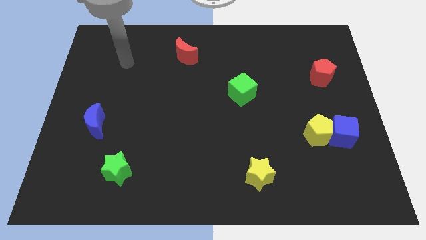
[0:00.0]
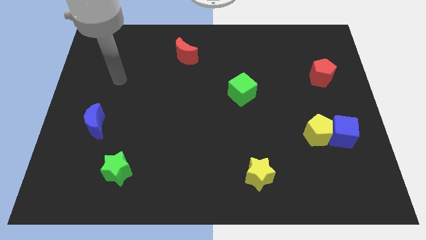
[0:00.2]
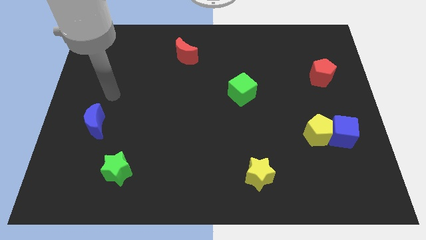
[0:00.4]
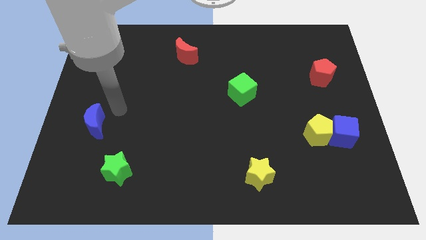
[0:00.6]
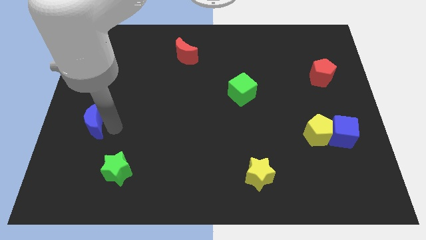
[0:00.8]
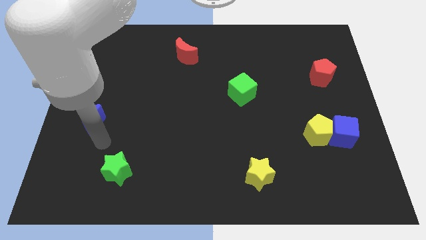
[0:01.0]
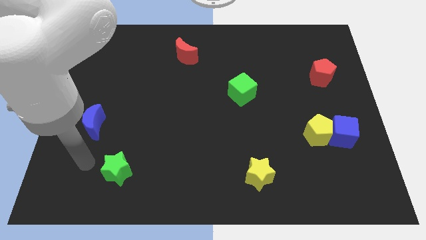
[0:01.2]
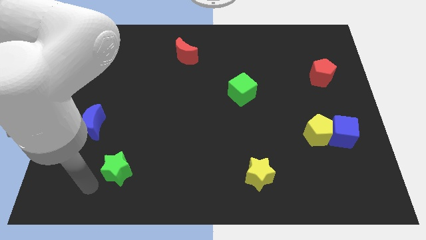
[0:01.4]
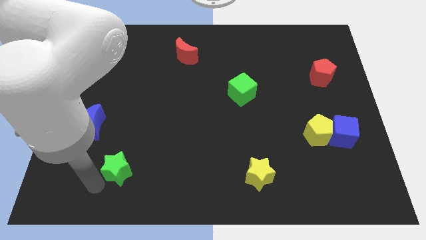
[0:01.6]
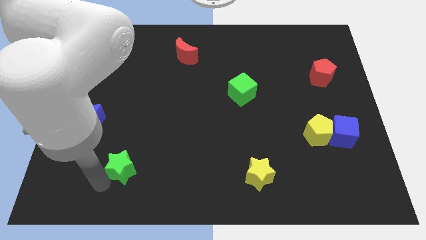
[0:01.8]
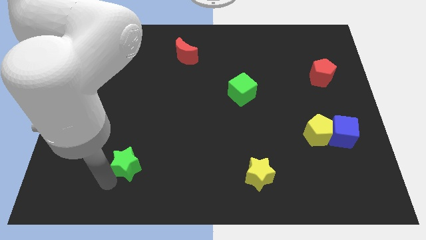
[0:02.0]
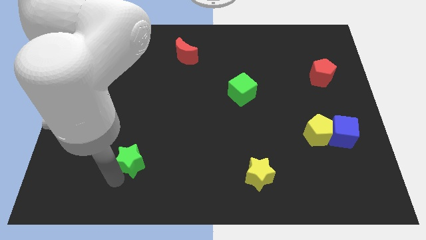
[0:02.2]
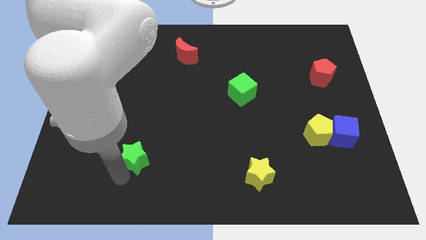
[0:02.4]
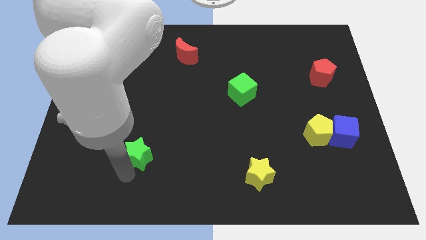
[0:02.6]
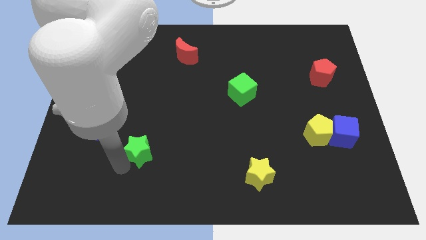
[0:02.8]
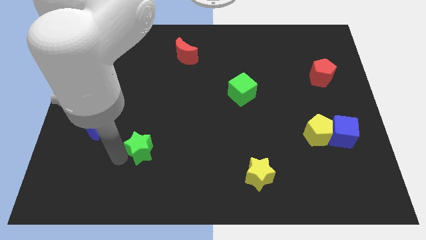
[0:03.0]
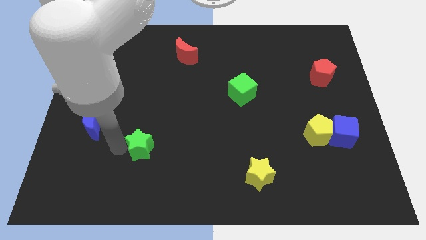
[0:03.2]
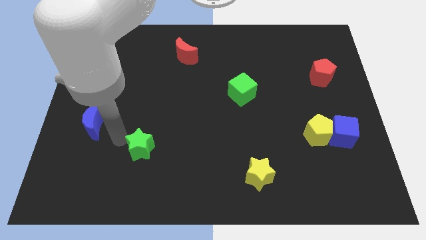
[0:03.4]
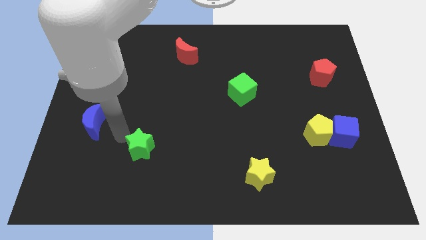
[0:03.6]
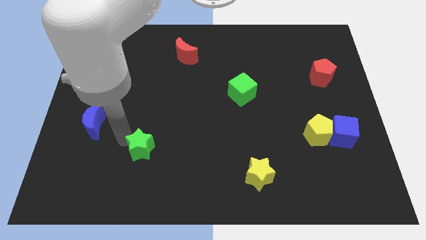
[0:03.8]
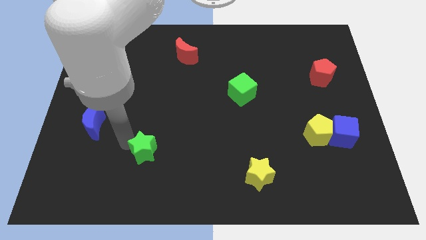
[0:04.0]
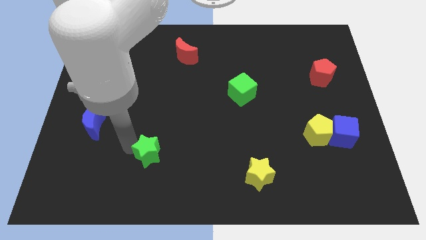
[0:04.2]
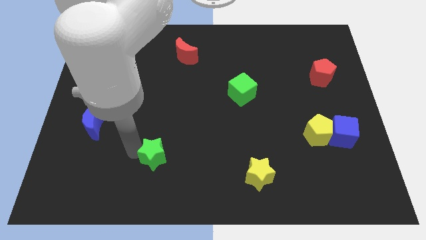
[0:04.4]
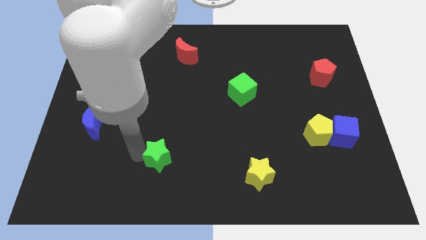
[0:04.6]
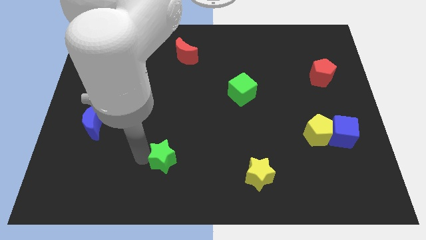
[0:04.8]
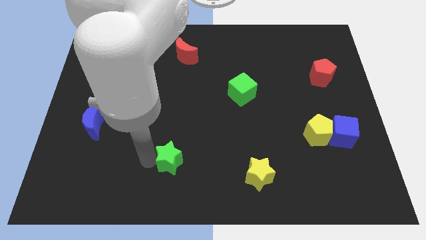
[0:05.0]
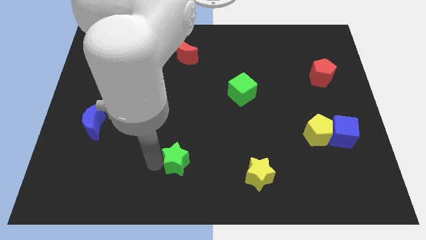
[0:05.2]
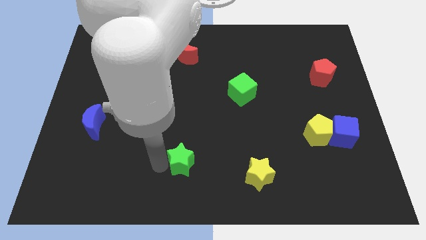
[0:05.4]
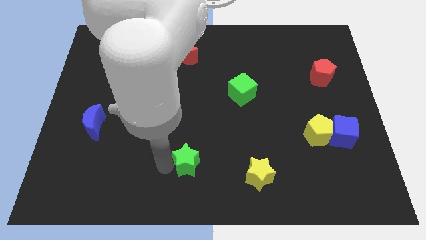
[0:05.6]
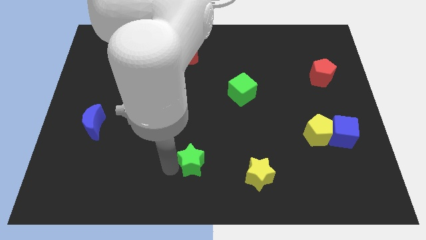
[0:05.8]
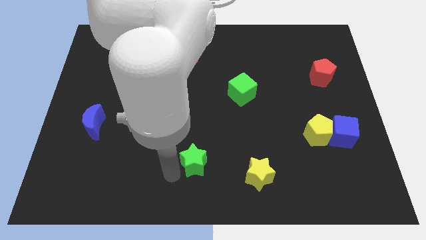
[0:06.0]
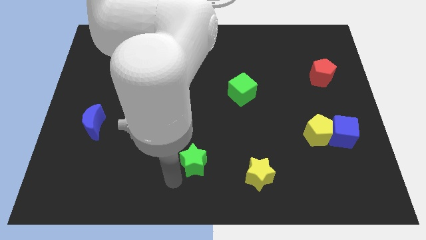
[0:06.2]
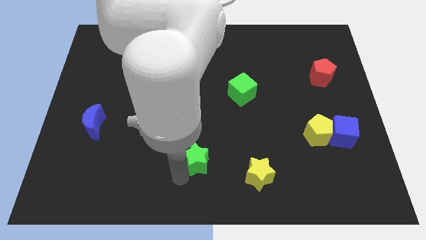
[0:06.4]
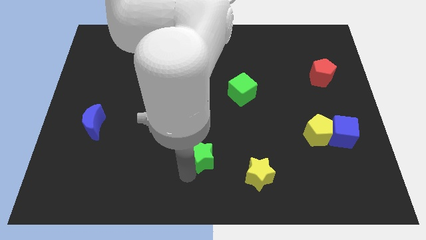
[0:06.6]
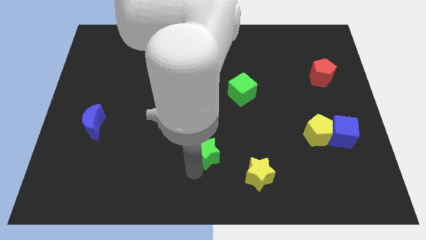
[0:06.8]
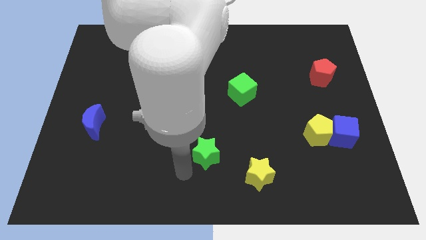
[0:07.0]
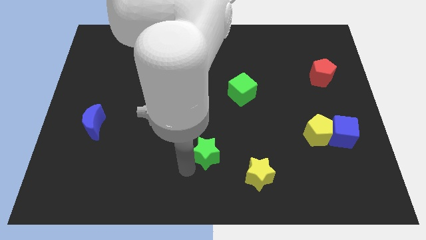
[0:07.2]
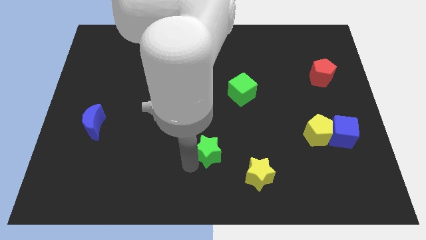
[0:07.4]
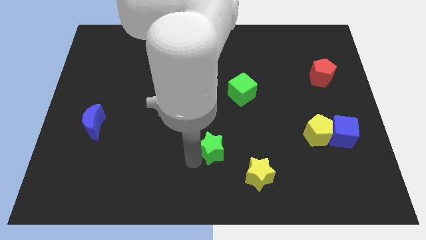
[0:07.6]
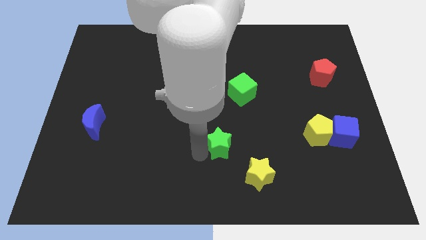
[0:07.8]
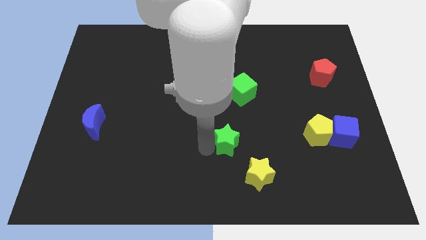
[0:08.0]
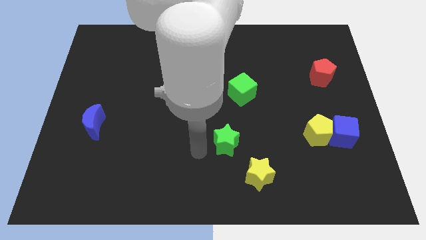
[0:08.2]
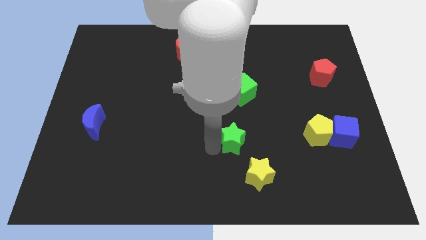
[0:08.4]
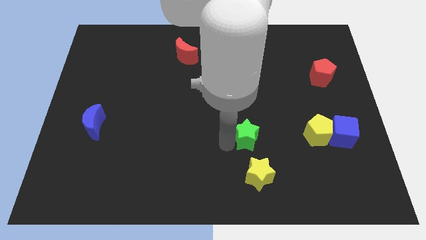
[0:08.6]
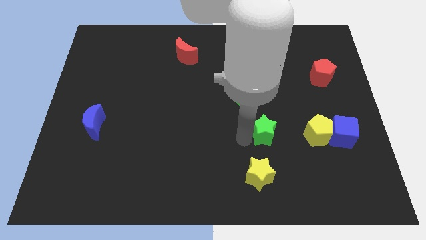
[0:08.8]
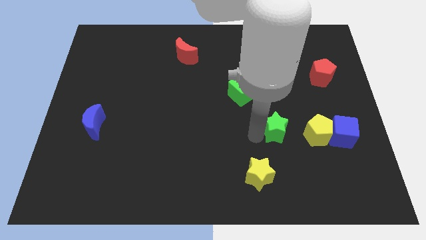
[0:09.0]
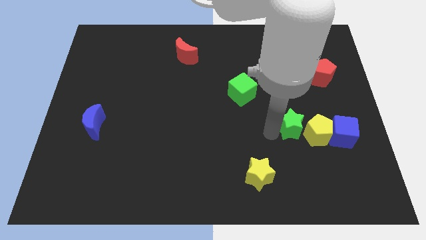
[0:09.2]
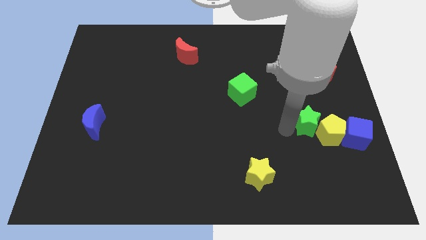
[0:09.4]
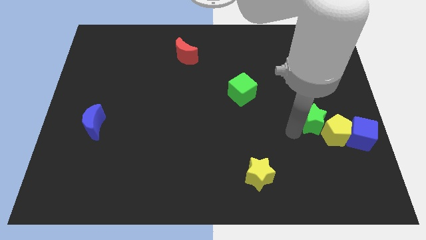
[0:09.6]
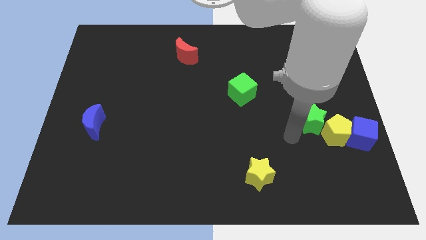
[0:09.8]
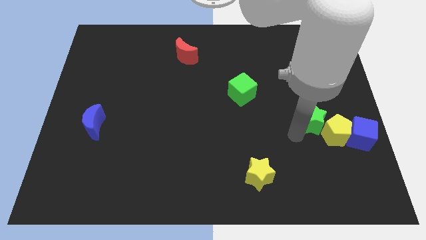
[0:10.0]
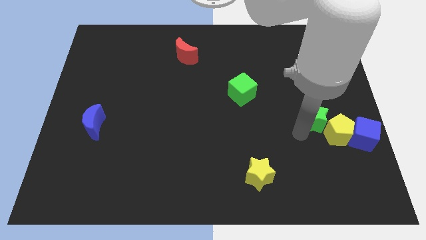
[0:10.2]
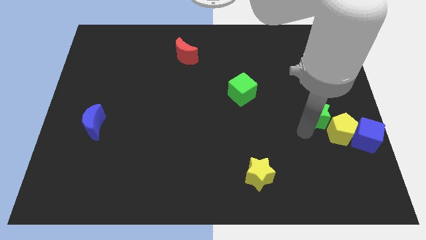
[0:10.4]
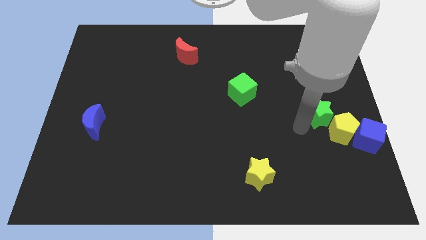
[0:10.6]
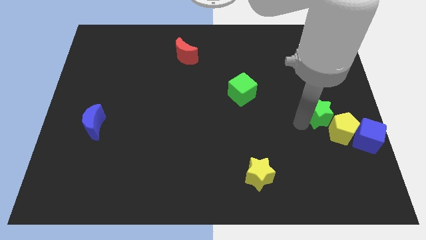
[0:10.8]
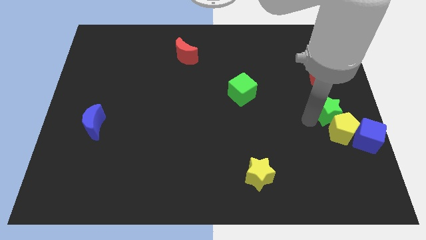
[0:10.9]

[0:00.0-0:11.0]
move the green star to the right side of the board
